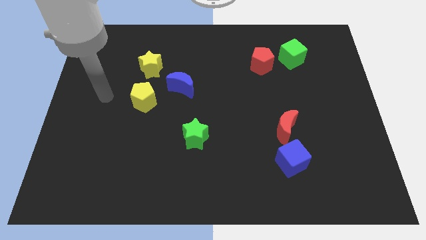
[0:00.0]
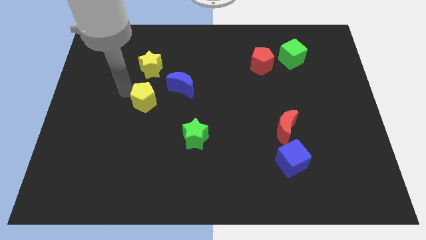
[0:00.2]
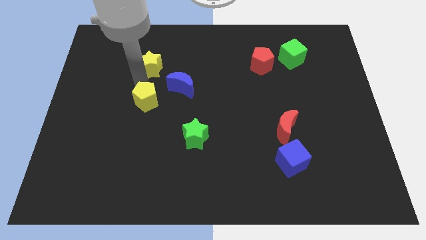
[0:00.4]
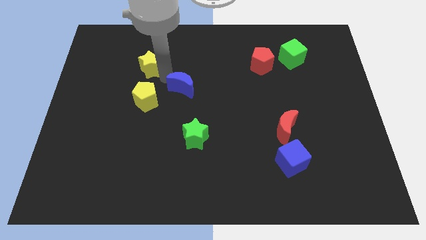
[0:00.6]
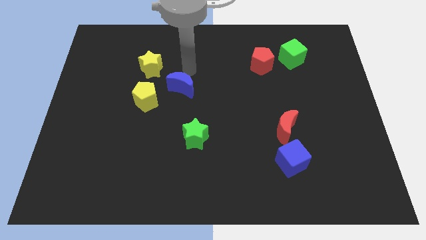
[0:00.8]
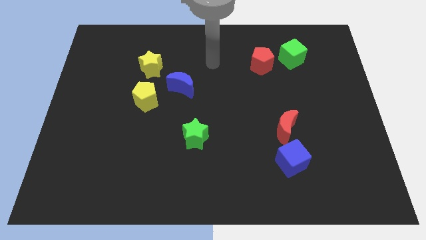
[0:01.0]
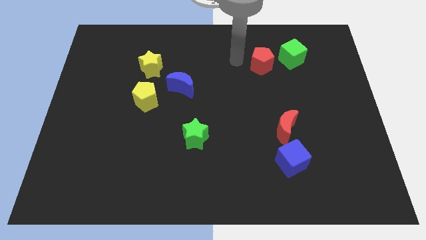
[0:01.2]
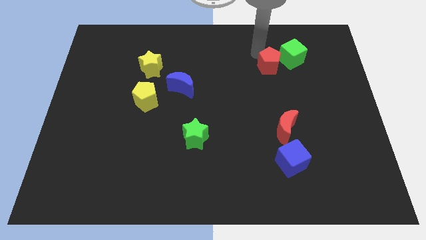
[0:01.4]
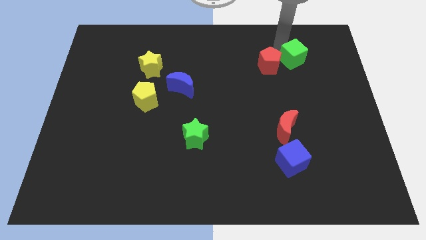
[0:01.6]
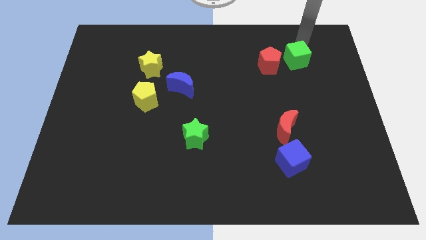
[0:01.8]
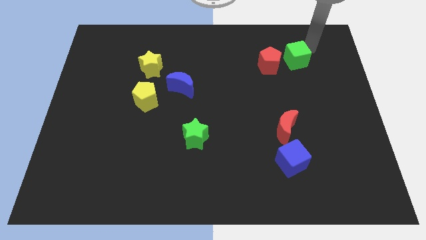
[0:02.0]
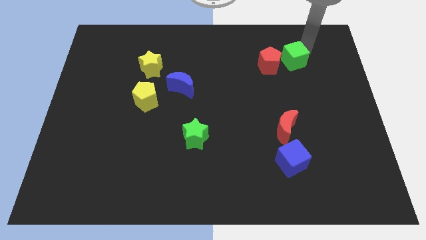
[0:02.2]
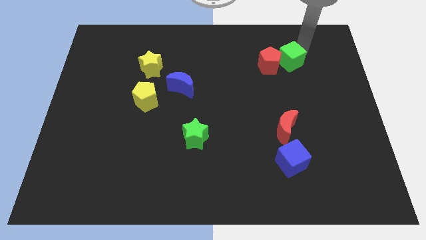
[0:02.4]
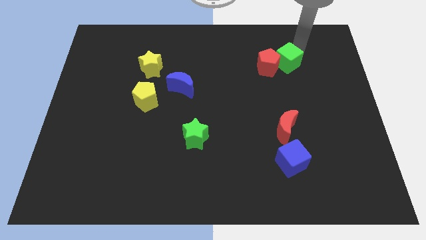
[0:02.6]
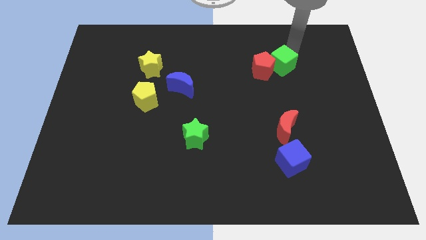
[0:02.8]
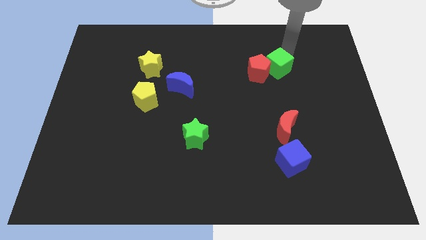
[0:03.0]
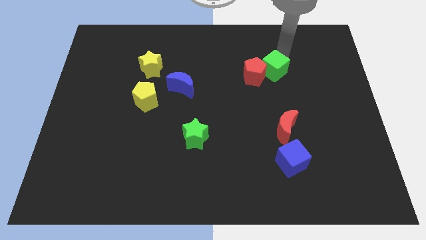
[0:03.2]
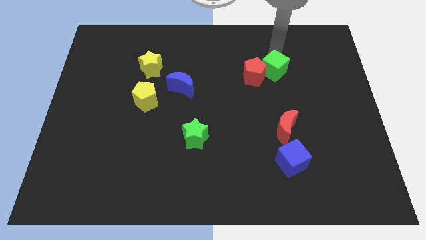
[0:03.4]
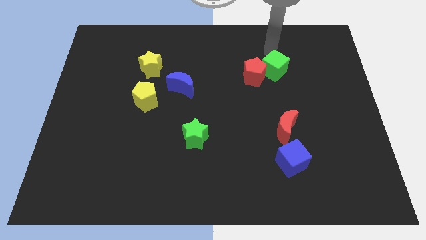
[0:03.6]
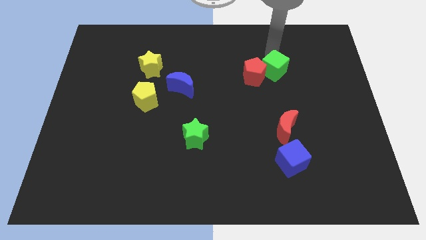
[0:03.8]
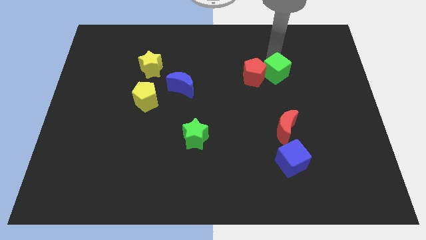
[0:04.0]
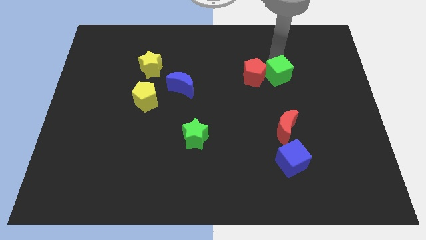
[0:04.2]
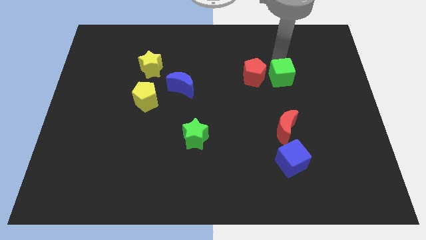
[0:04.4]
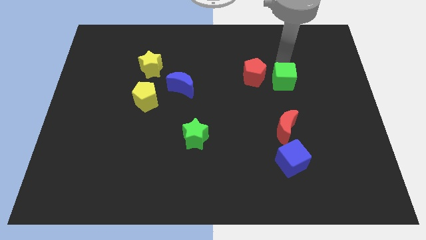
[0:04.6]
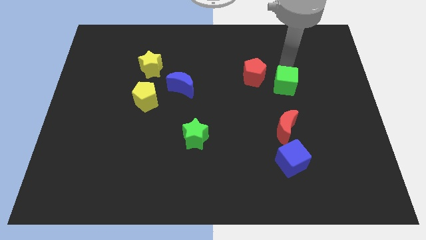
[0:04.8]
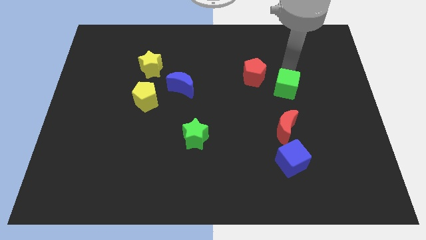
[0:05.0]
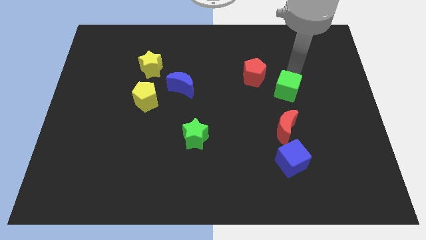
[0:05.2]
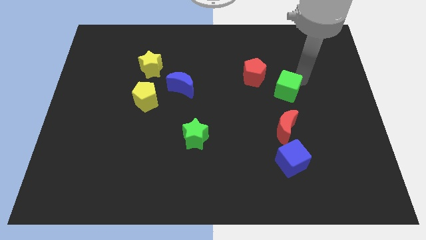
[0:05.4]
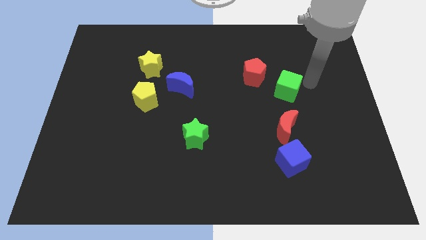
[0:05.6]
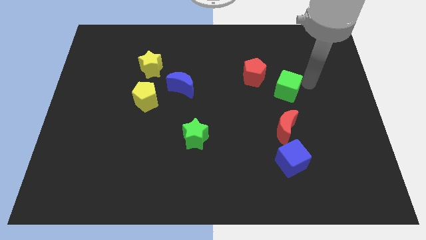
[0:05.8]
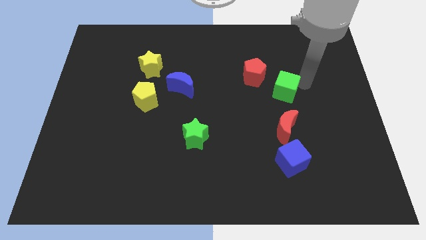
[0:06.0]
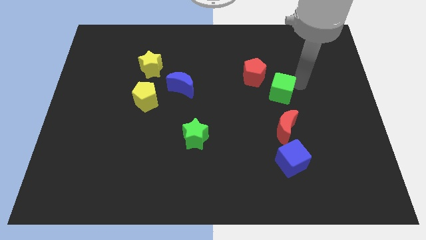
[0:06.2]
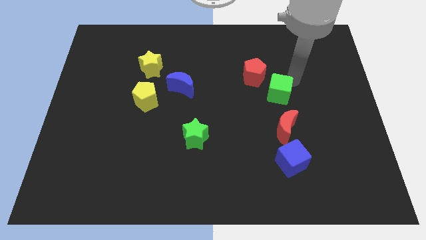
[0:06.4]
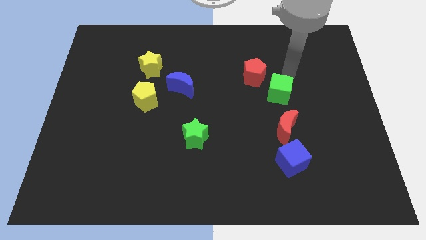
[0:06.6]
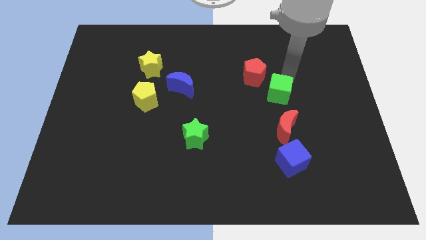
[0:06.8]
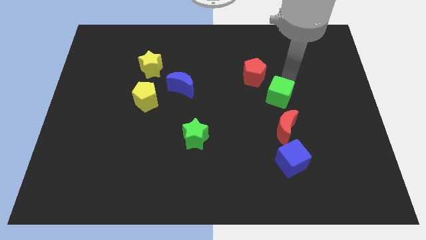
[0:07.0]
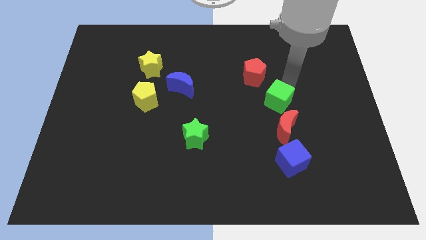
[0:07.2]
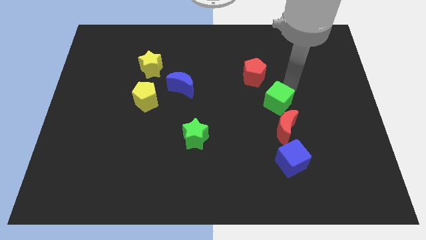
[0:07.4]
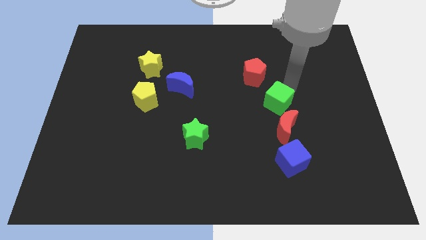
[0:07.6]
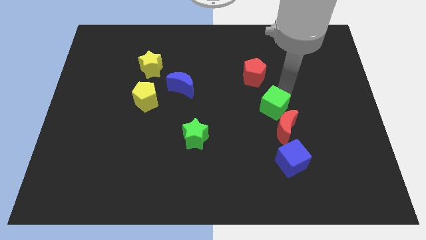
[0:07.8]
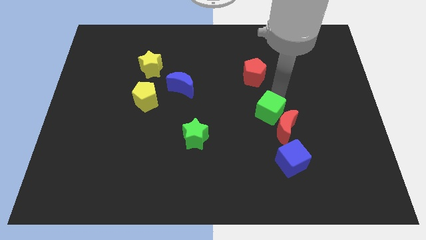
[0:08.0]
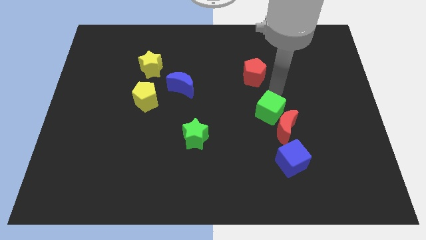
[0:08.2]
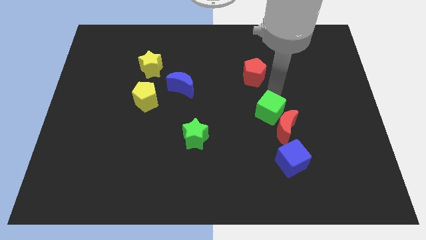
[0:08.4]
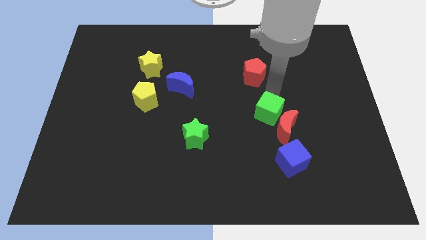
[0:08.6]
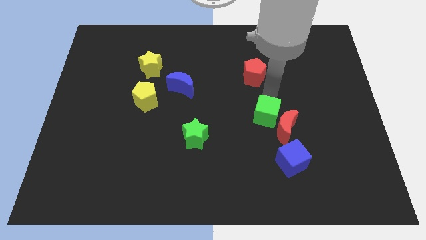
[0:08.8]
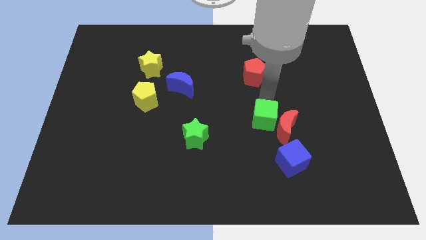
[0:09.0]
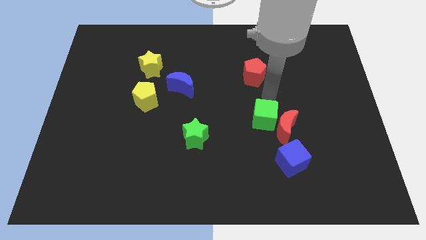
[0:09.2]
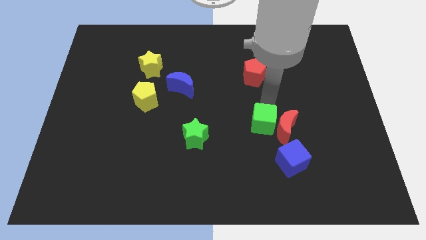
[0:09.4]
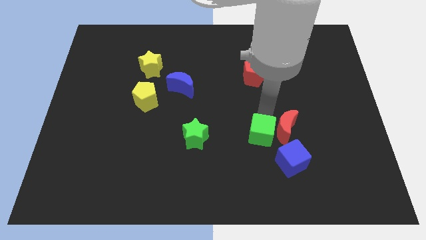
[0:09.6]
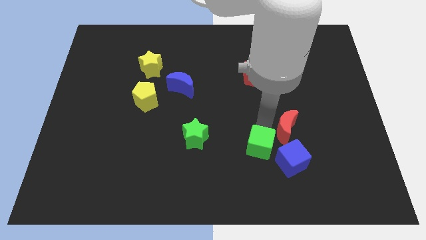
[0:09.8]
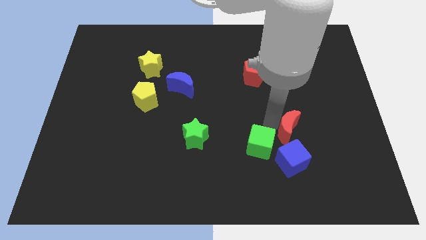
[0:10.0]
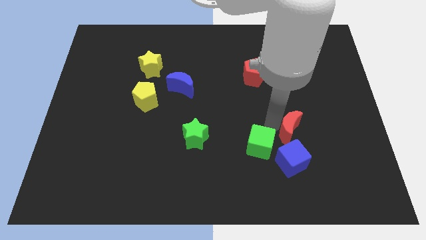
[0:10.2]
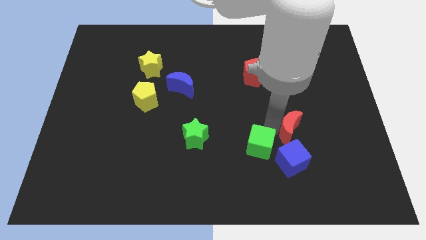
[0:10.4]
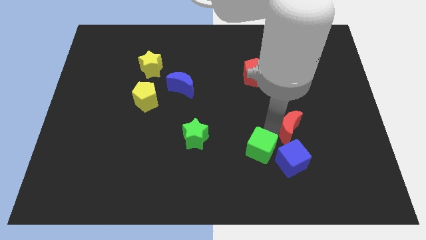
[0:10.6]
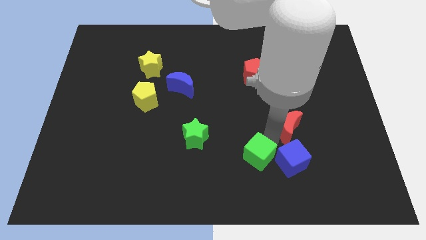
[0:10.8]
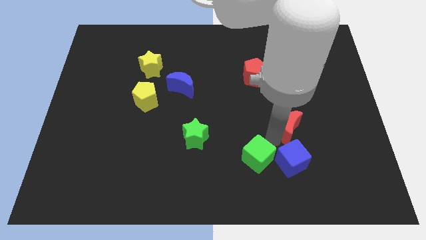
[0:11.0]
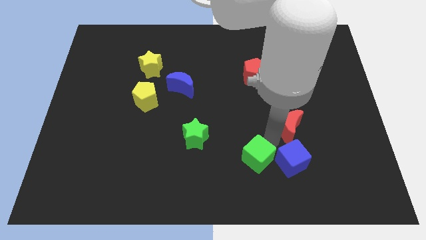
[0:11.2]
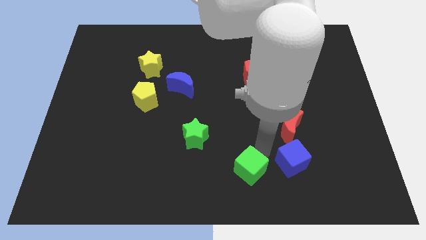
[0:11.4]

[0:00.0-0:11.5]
put the green cube to the bottom side
